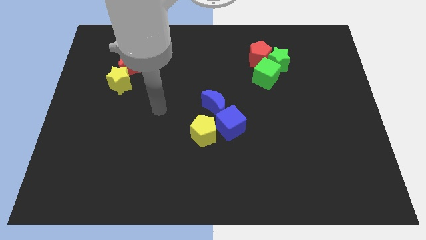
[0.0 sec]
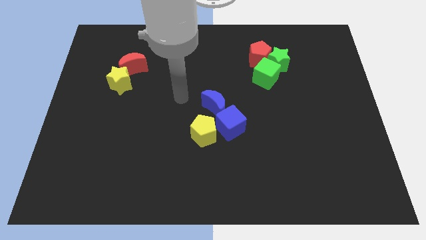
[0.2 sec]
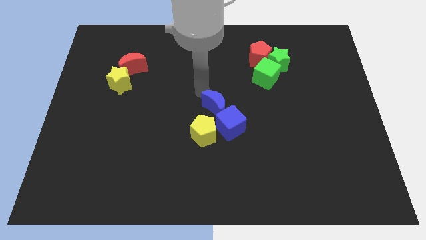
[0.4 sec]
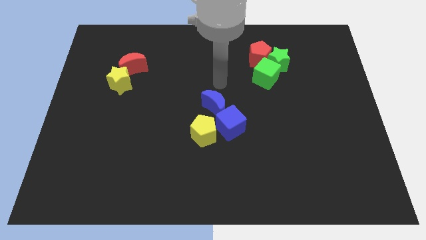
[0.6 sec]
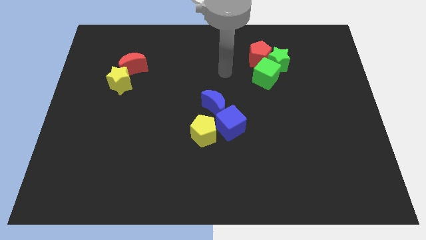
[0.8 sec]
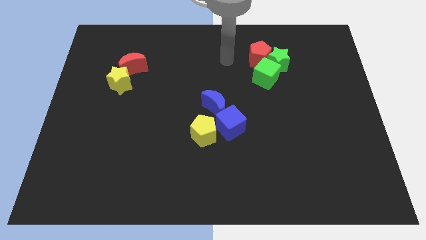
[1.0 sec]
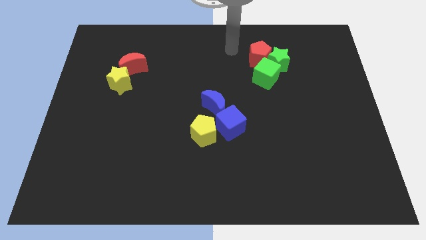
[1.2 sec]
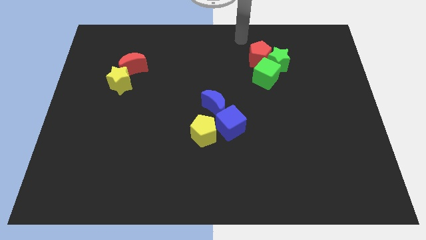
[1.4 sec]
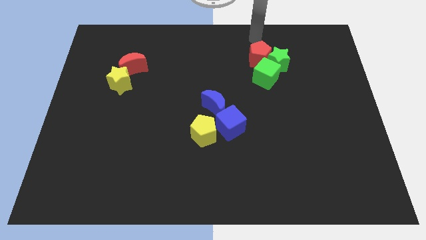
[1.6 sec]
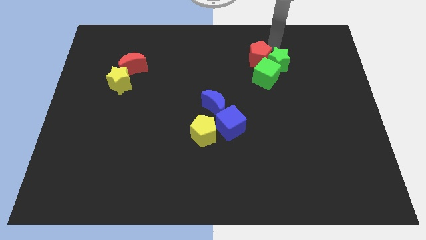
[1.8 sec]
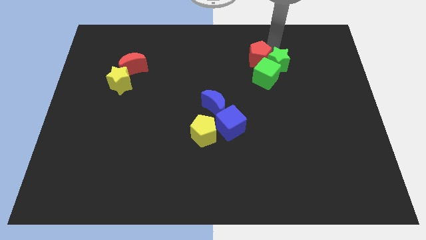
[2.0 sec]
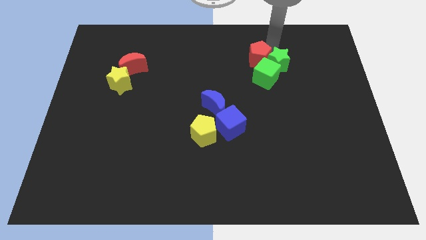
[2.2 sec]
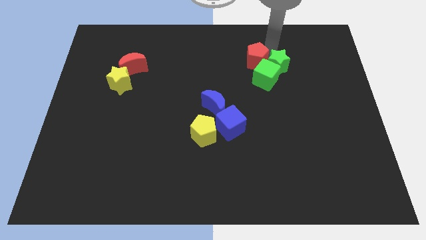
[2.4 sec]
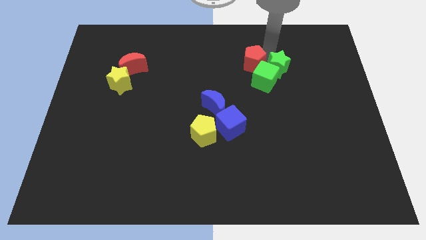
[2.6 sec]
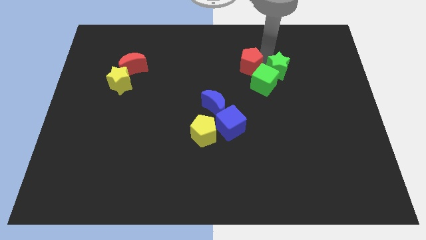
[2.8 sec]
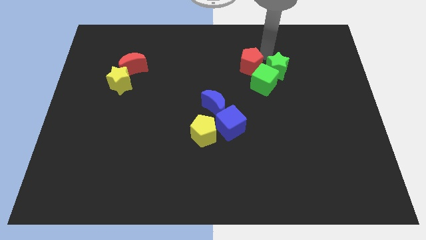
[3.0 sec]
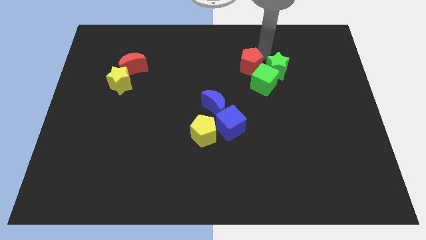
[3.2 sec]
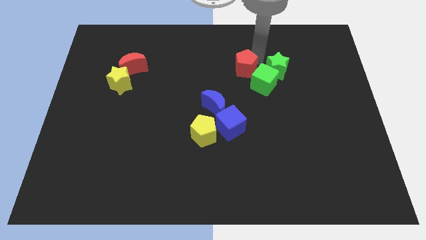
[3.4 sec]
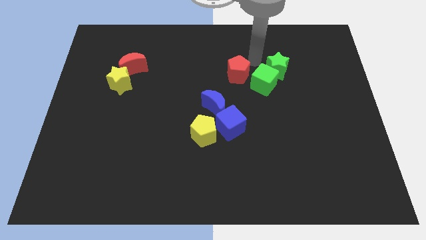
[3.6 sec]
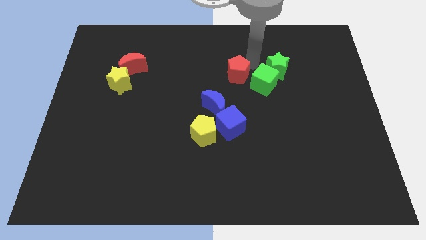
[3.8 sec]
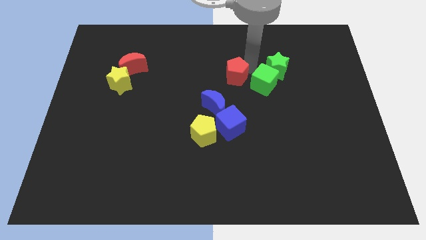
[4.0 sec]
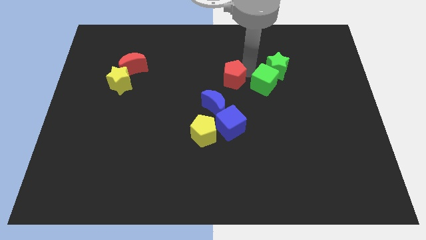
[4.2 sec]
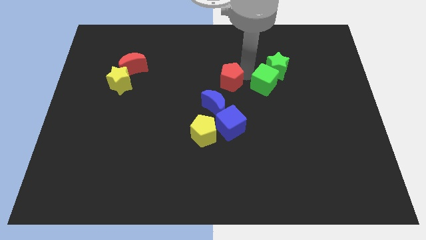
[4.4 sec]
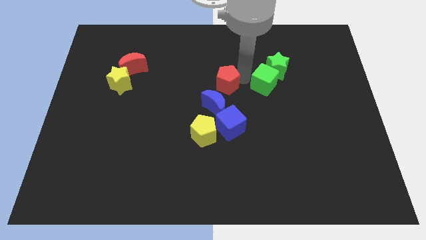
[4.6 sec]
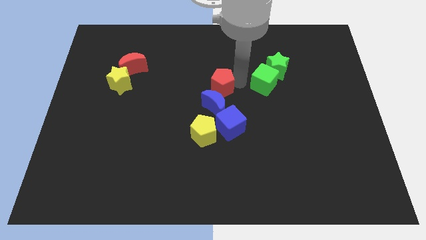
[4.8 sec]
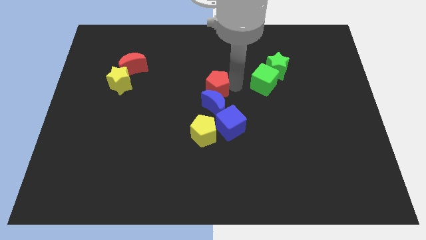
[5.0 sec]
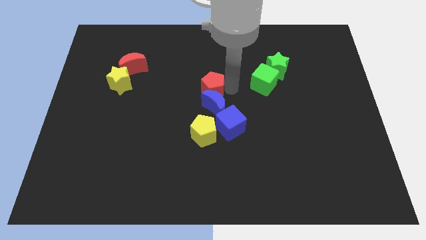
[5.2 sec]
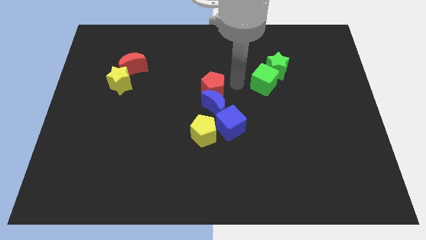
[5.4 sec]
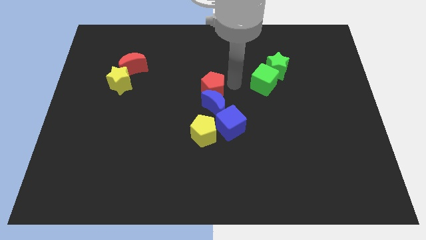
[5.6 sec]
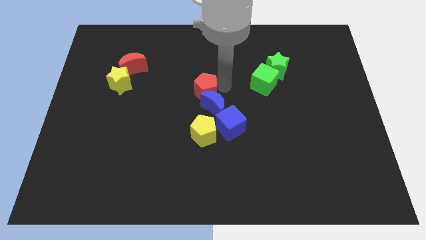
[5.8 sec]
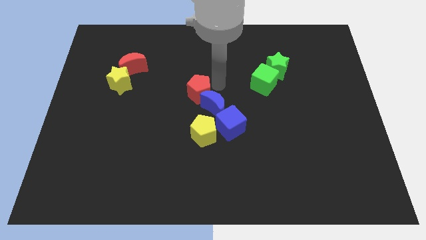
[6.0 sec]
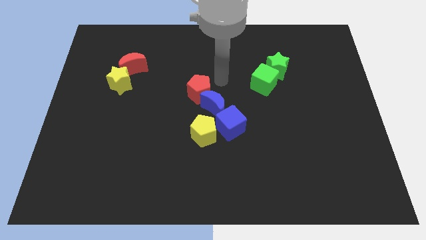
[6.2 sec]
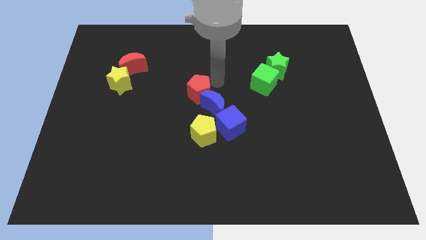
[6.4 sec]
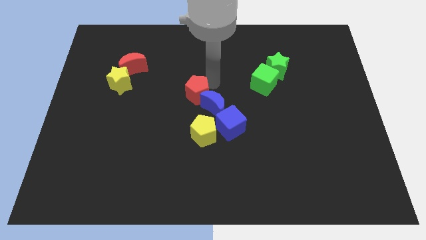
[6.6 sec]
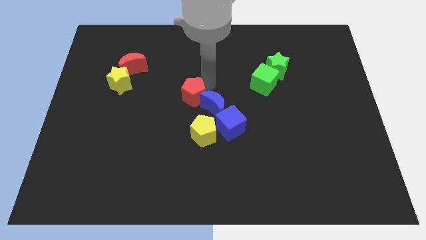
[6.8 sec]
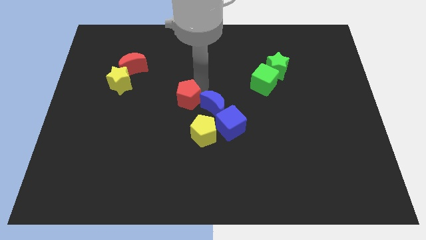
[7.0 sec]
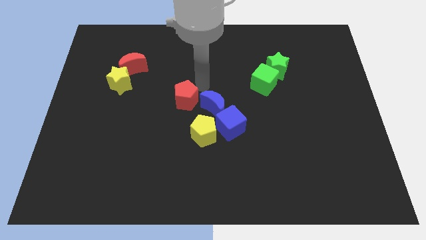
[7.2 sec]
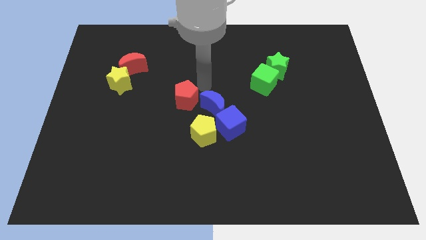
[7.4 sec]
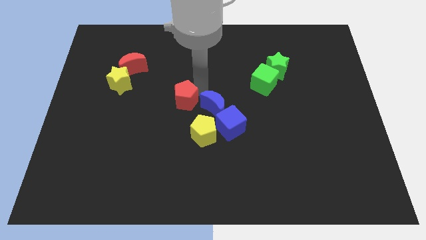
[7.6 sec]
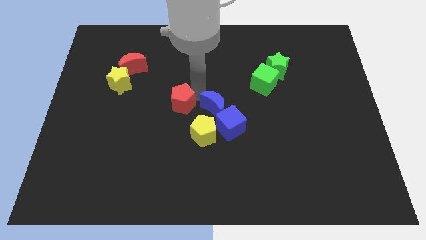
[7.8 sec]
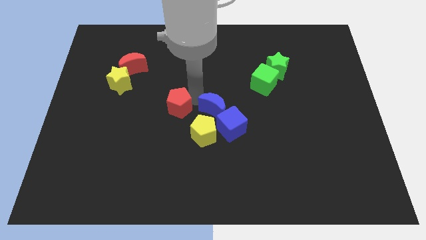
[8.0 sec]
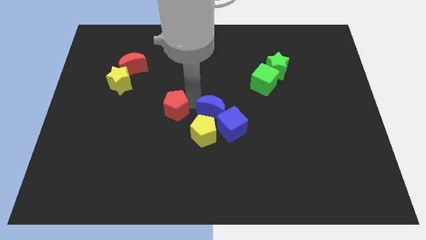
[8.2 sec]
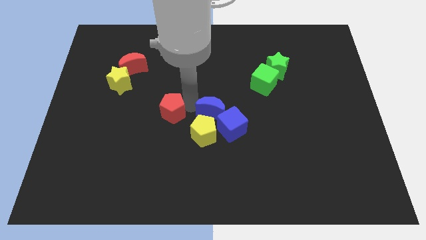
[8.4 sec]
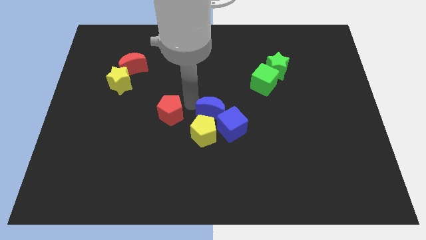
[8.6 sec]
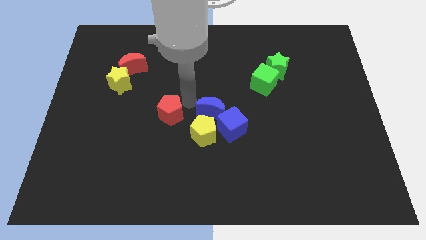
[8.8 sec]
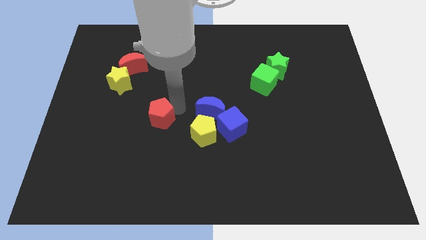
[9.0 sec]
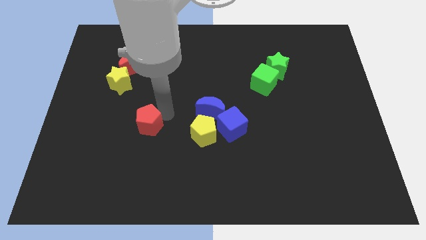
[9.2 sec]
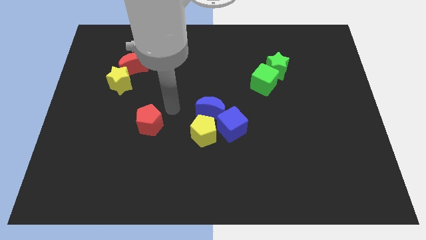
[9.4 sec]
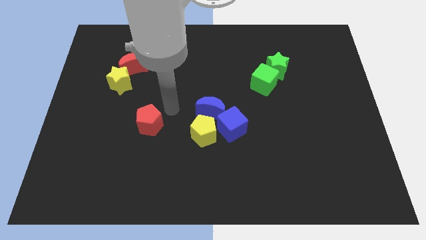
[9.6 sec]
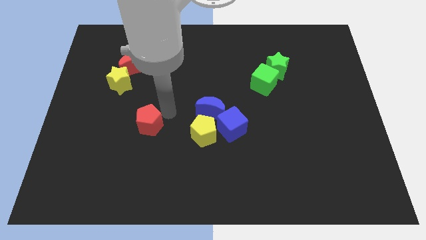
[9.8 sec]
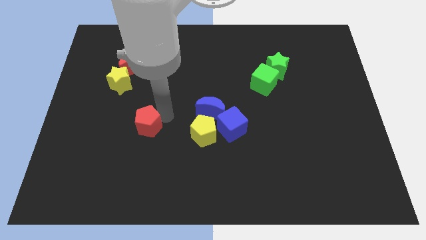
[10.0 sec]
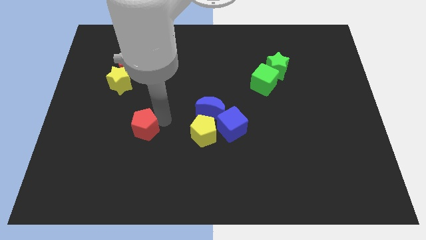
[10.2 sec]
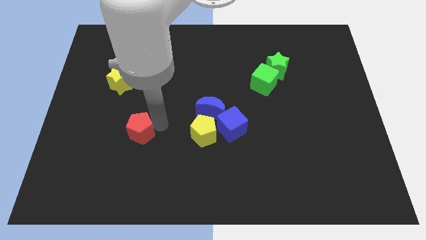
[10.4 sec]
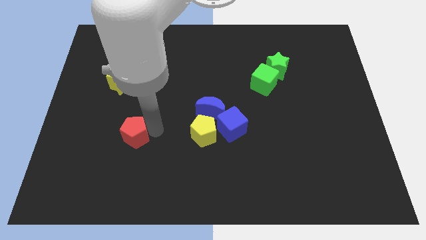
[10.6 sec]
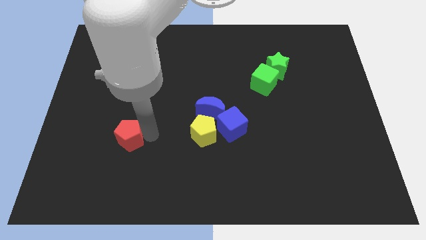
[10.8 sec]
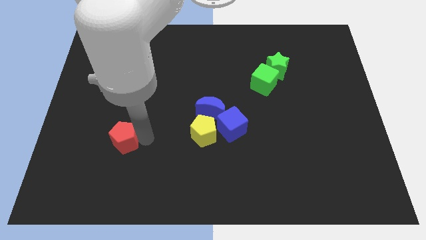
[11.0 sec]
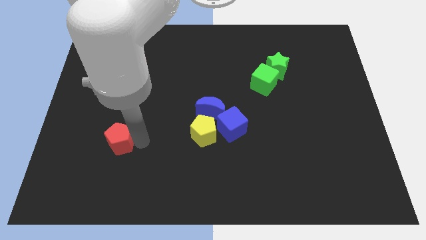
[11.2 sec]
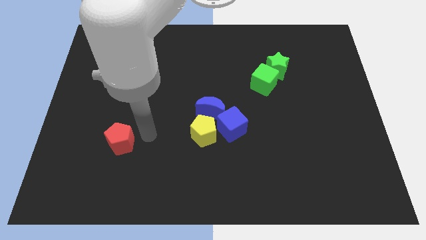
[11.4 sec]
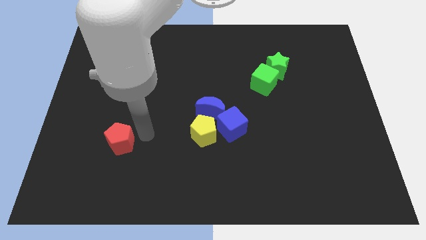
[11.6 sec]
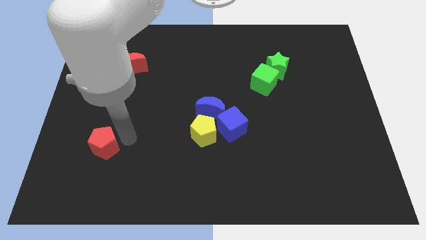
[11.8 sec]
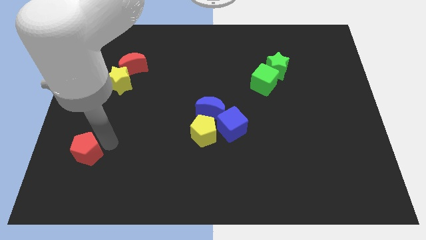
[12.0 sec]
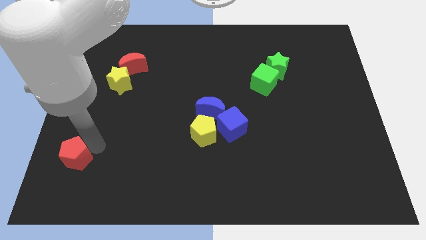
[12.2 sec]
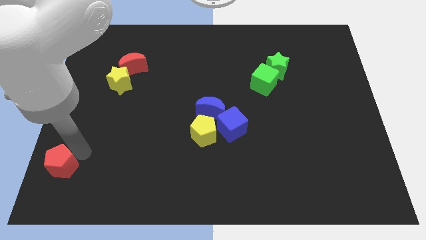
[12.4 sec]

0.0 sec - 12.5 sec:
put the red pentagon to the bottom left

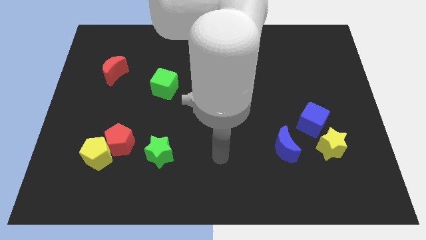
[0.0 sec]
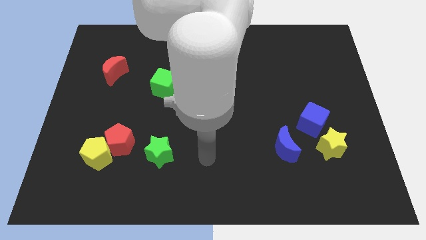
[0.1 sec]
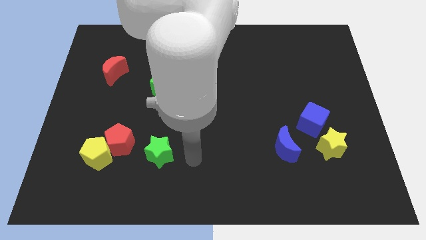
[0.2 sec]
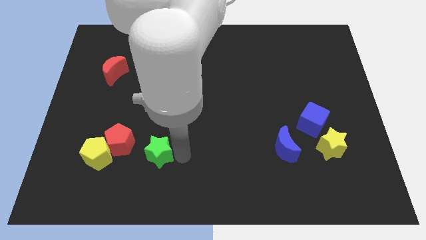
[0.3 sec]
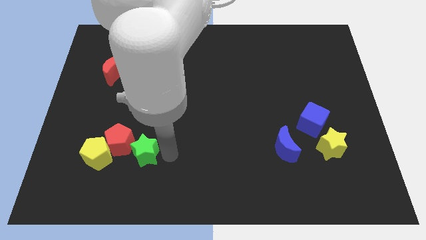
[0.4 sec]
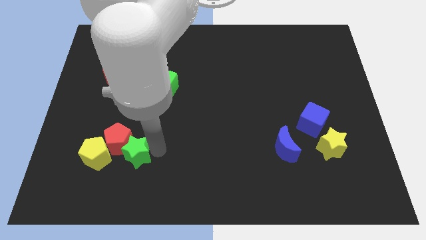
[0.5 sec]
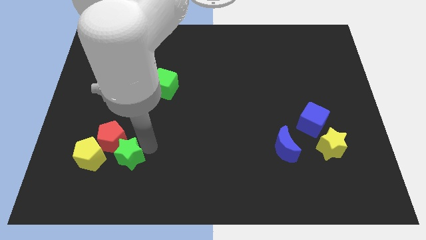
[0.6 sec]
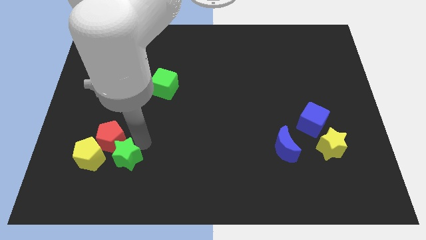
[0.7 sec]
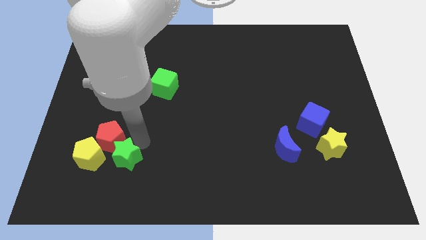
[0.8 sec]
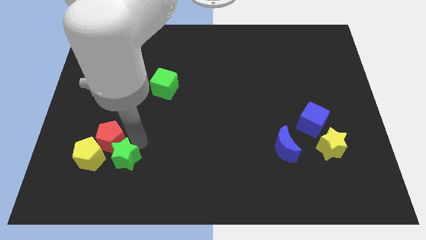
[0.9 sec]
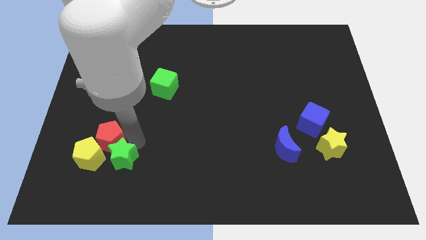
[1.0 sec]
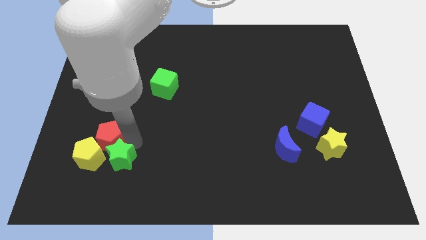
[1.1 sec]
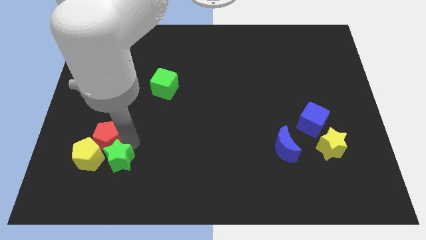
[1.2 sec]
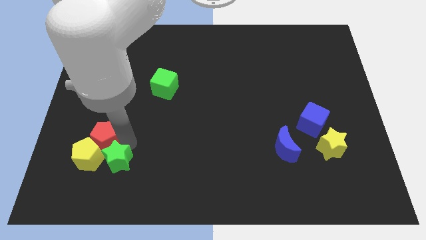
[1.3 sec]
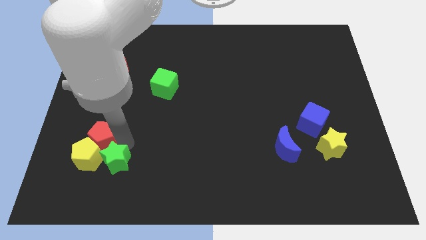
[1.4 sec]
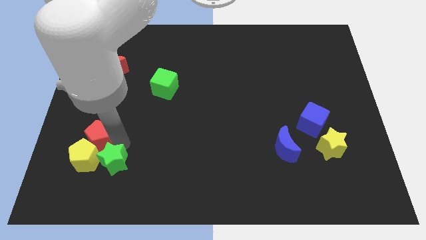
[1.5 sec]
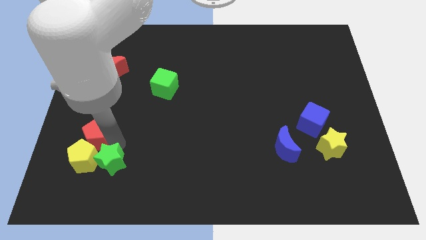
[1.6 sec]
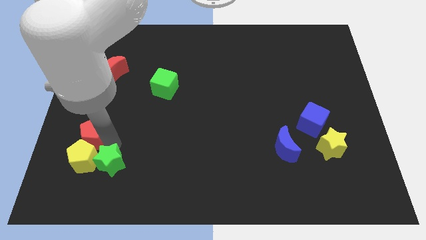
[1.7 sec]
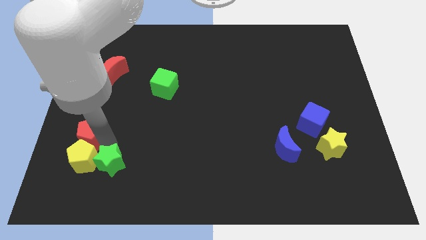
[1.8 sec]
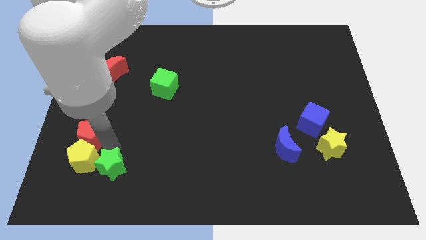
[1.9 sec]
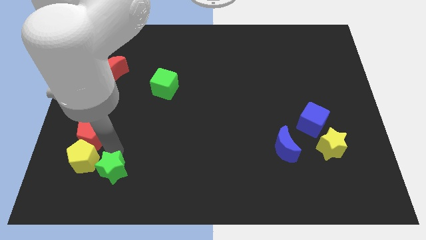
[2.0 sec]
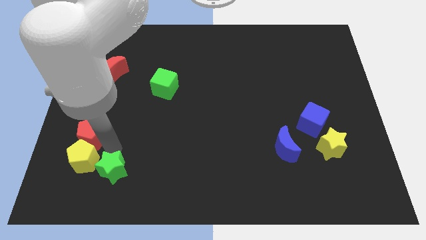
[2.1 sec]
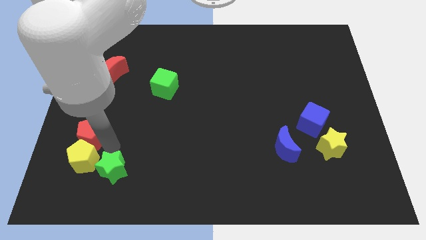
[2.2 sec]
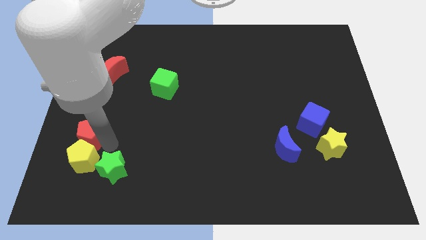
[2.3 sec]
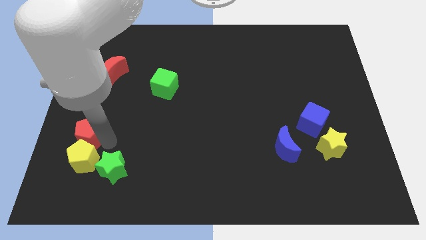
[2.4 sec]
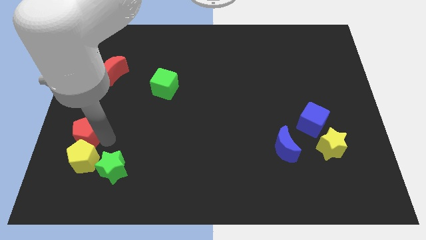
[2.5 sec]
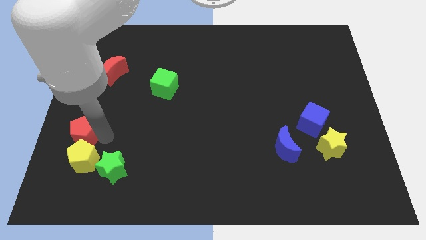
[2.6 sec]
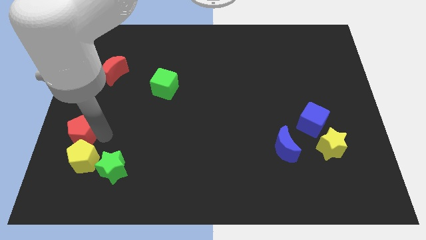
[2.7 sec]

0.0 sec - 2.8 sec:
push the red pentagon to the left side
